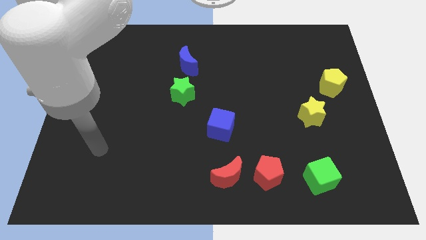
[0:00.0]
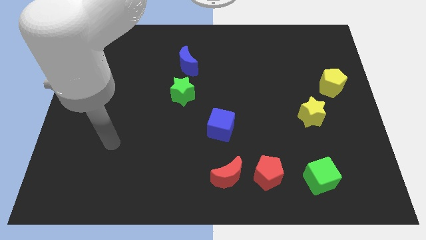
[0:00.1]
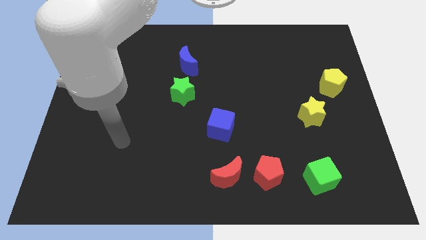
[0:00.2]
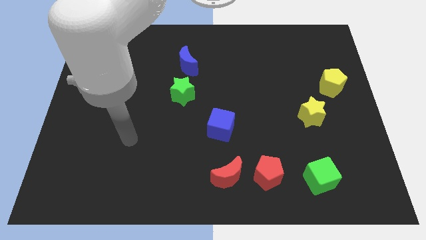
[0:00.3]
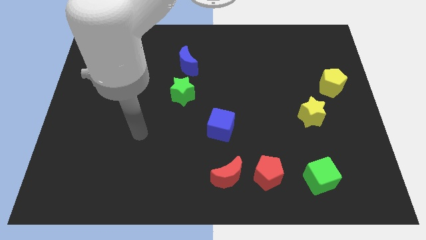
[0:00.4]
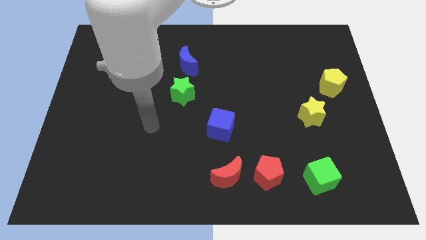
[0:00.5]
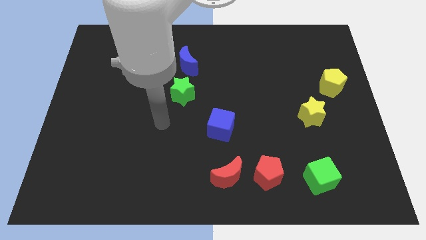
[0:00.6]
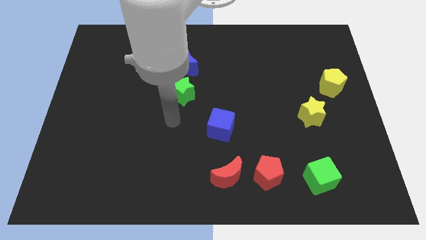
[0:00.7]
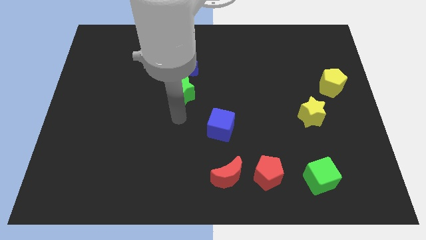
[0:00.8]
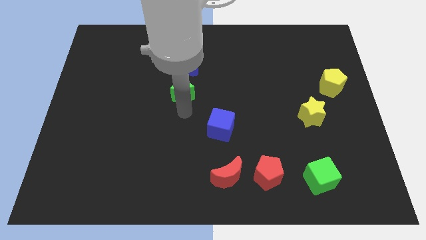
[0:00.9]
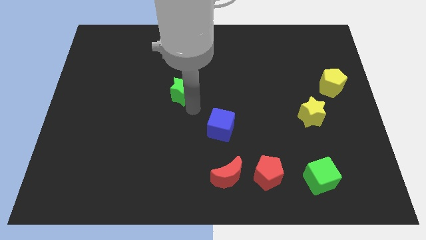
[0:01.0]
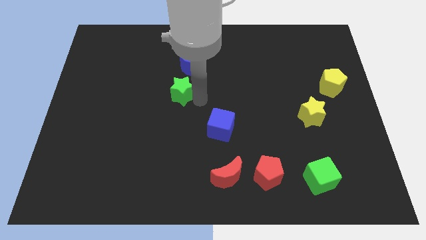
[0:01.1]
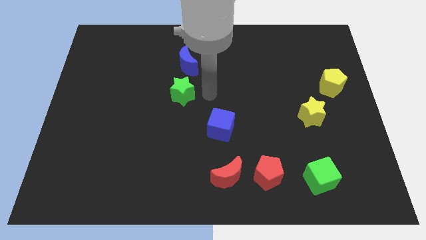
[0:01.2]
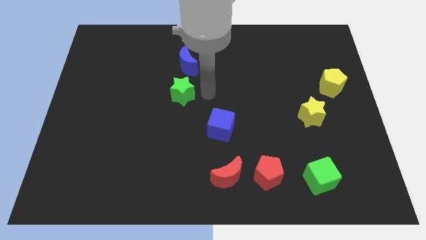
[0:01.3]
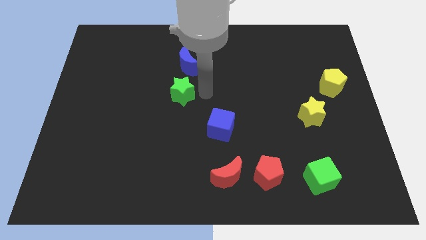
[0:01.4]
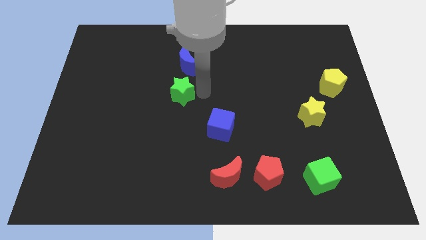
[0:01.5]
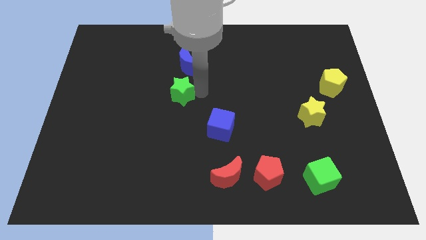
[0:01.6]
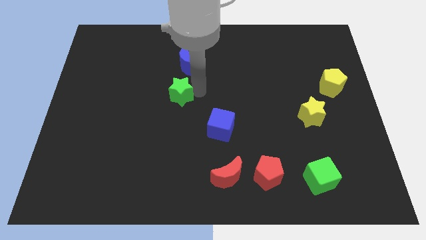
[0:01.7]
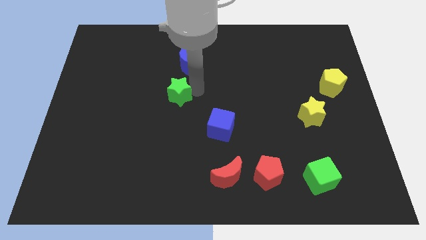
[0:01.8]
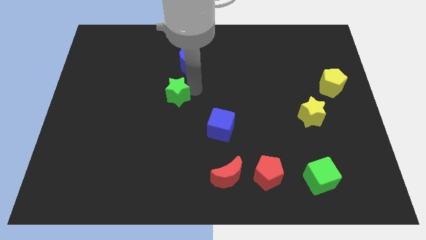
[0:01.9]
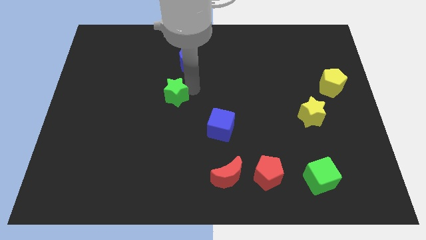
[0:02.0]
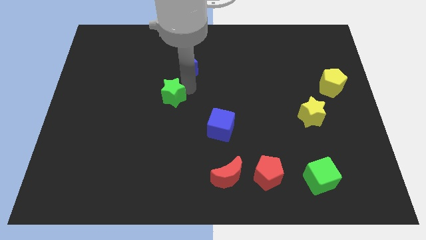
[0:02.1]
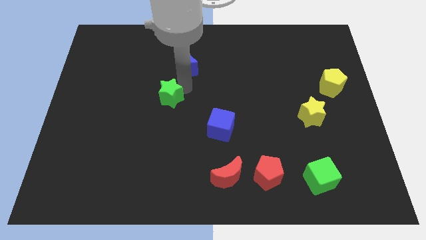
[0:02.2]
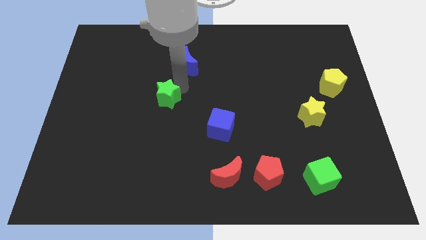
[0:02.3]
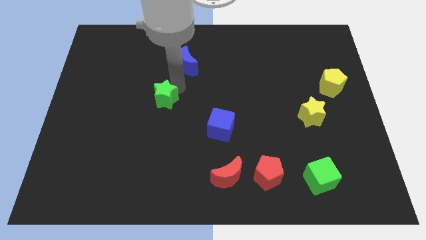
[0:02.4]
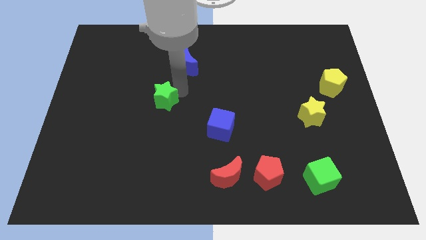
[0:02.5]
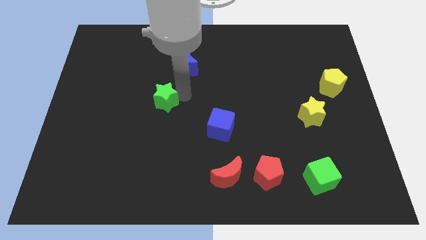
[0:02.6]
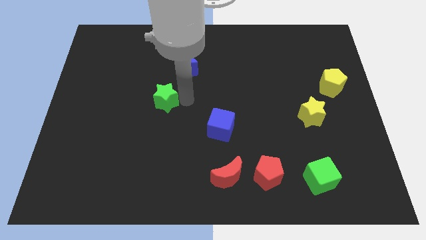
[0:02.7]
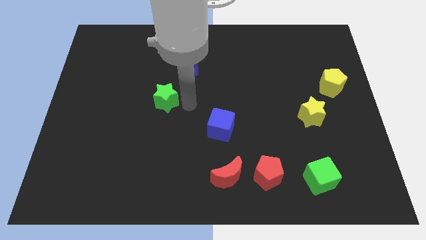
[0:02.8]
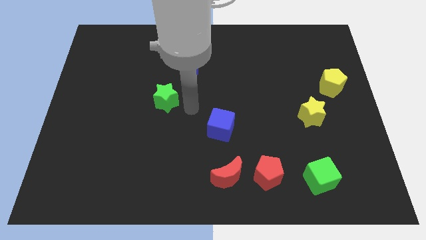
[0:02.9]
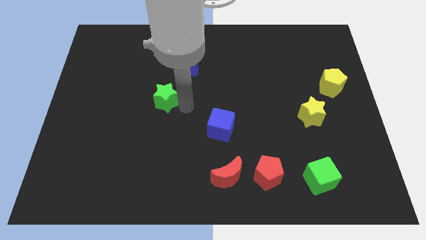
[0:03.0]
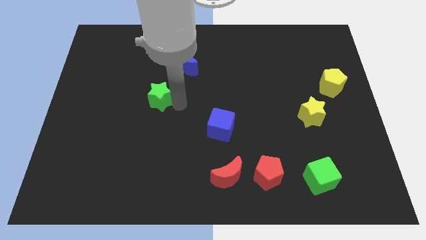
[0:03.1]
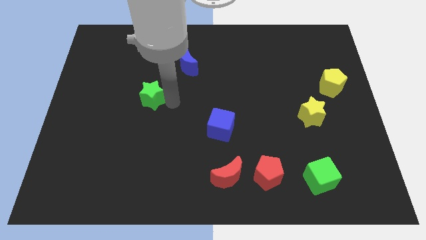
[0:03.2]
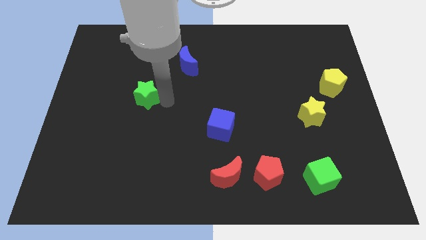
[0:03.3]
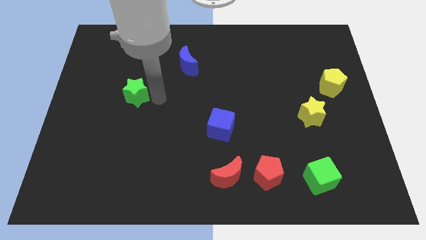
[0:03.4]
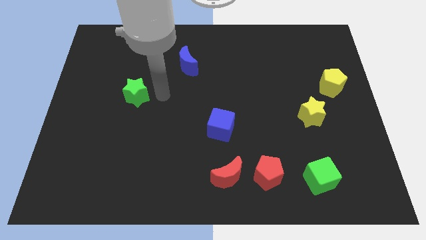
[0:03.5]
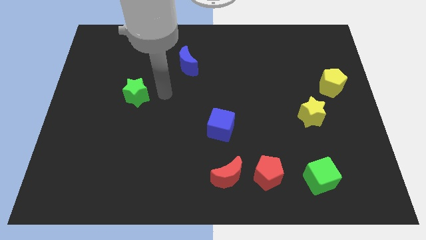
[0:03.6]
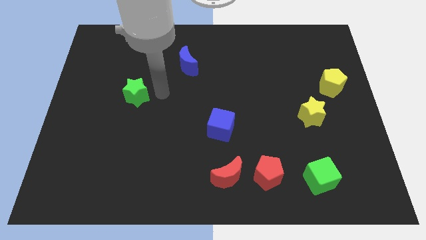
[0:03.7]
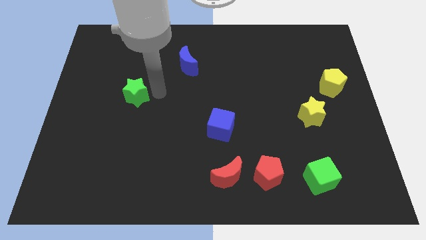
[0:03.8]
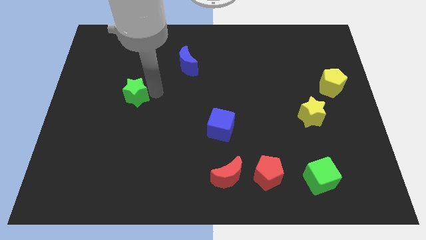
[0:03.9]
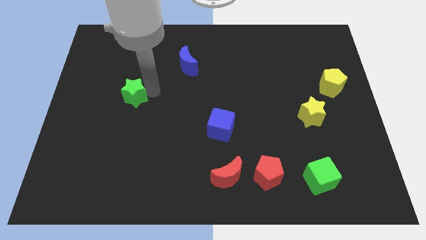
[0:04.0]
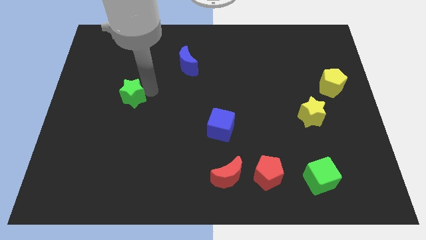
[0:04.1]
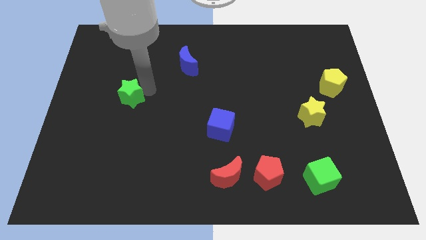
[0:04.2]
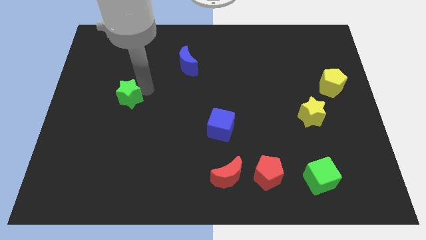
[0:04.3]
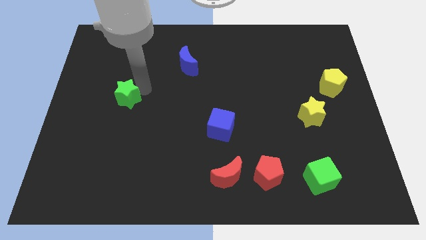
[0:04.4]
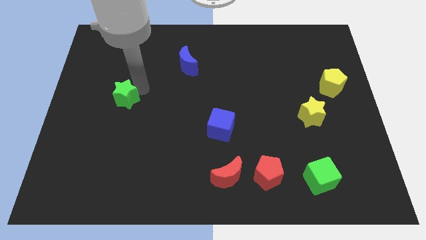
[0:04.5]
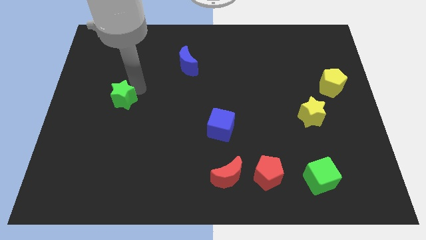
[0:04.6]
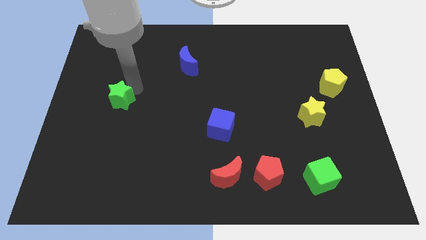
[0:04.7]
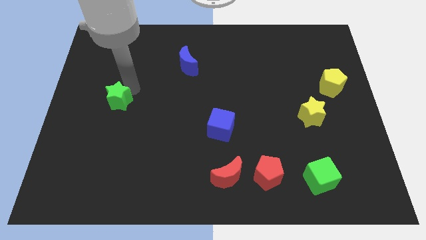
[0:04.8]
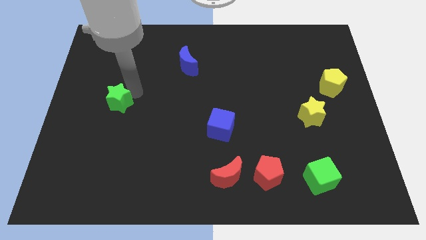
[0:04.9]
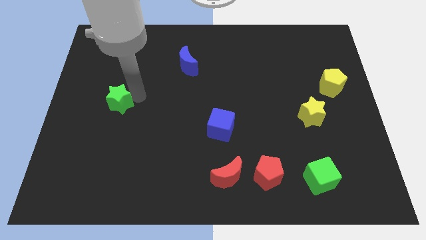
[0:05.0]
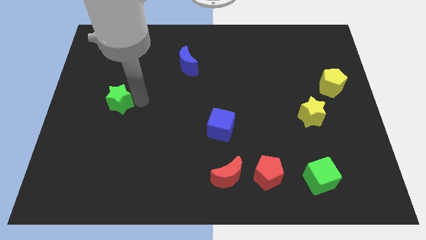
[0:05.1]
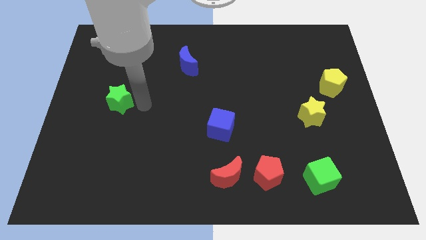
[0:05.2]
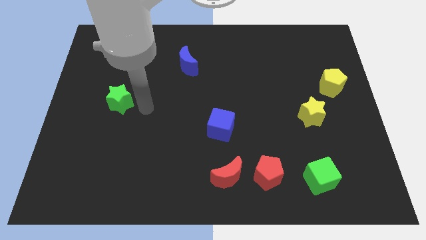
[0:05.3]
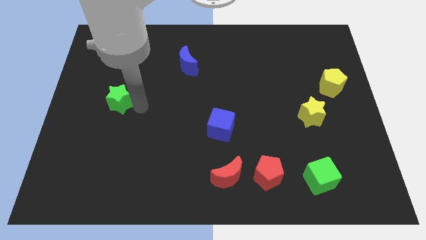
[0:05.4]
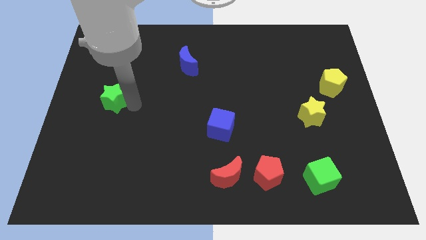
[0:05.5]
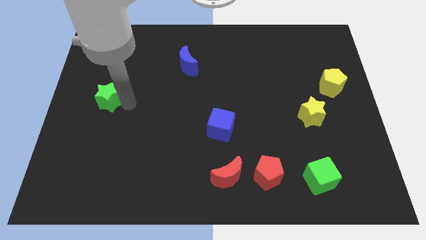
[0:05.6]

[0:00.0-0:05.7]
move the green star to the left side of the board

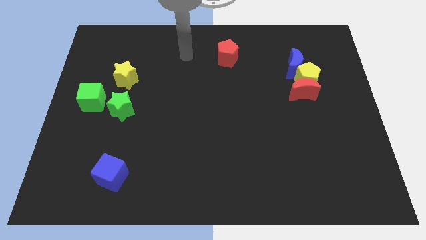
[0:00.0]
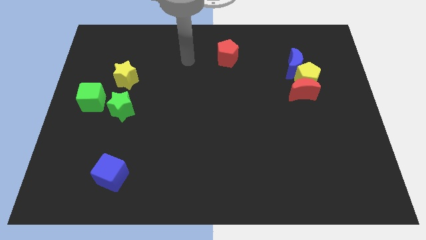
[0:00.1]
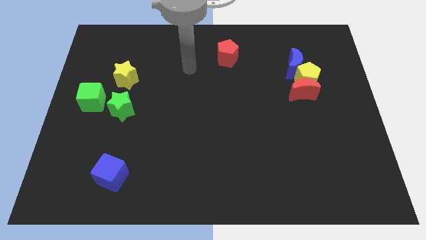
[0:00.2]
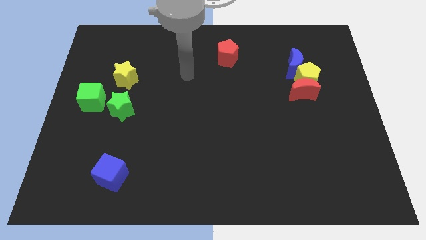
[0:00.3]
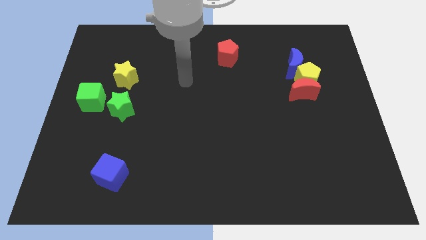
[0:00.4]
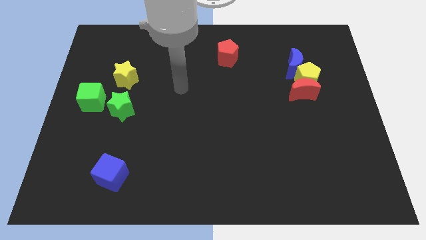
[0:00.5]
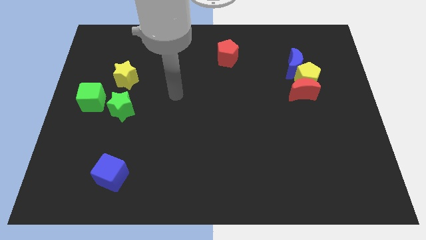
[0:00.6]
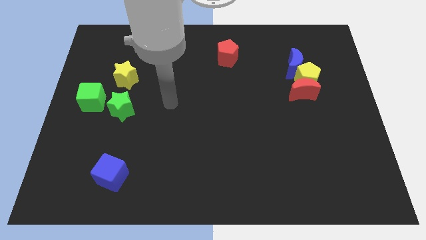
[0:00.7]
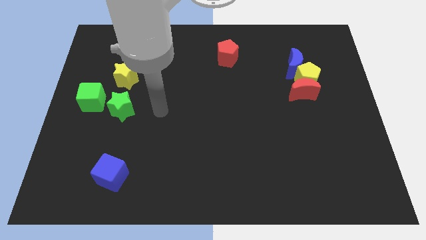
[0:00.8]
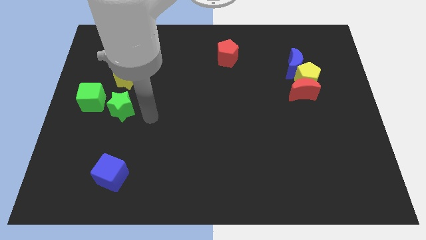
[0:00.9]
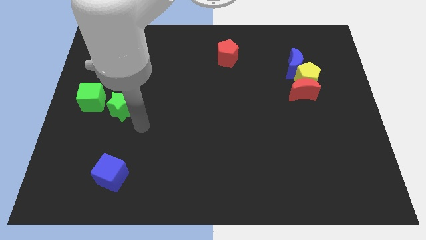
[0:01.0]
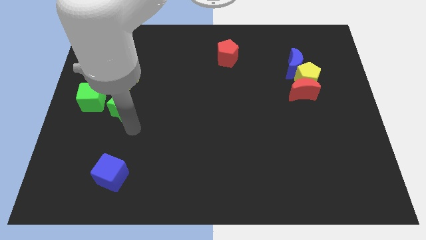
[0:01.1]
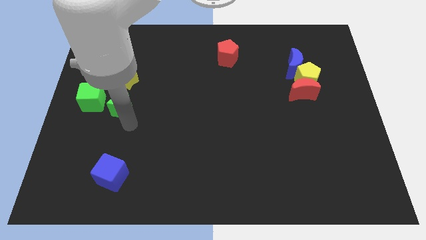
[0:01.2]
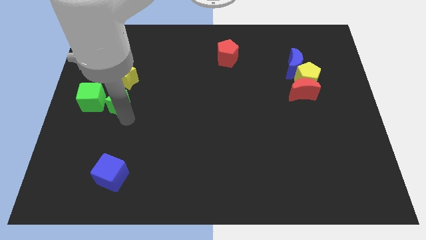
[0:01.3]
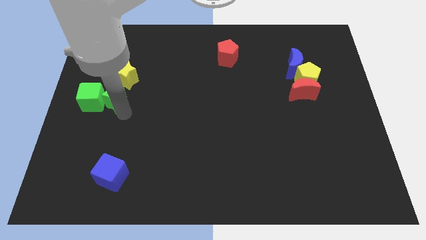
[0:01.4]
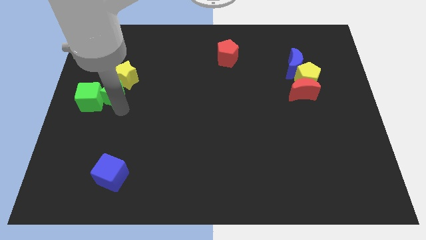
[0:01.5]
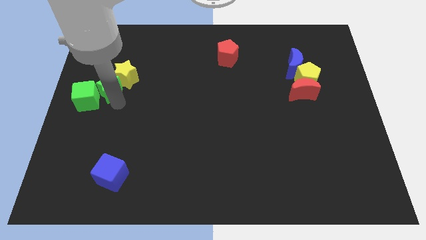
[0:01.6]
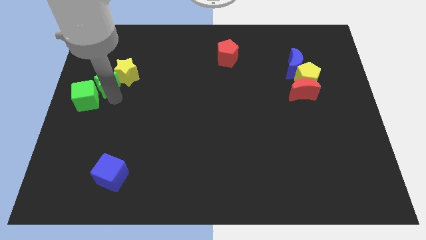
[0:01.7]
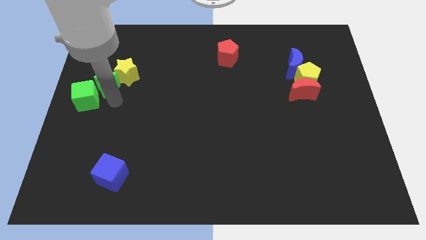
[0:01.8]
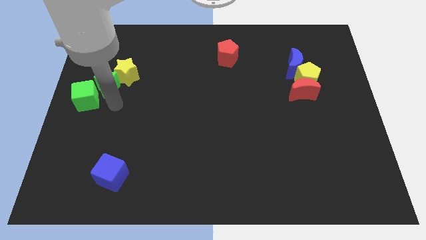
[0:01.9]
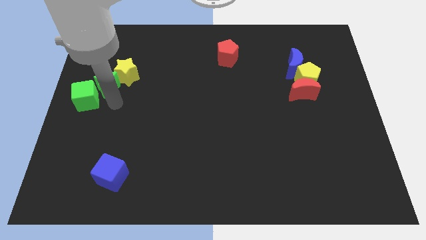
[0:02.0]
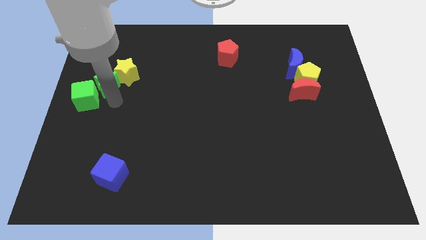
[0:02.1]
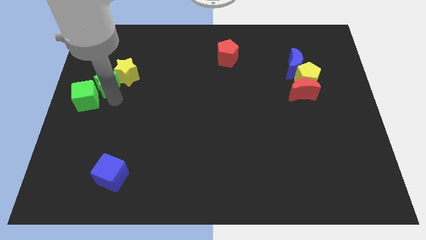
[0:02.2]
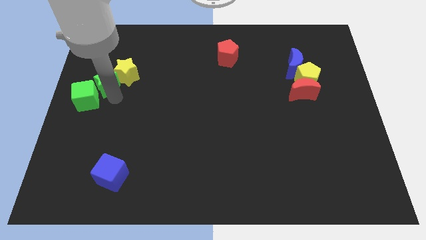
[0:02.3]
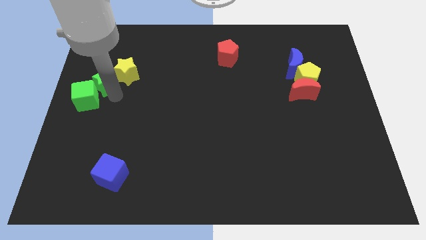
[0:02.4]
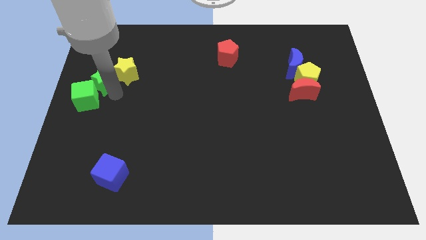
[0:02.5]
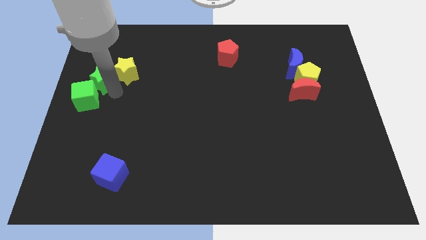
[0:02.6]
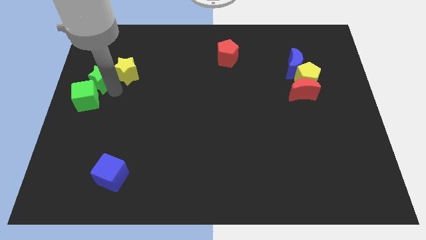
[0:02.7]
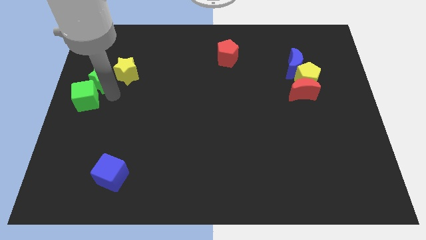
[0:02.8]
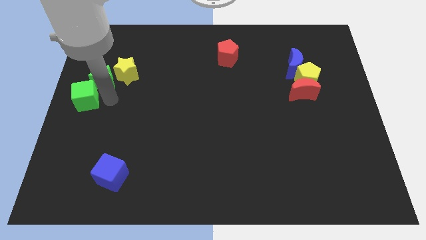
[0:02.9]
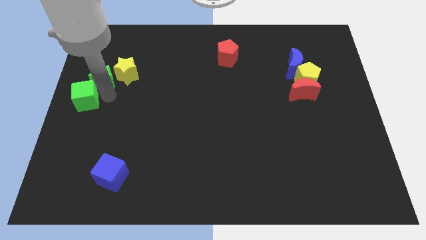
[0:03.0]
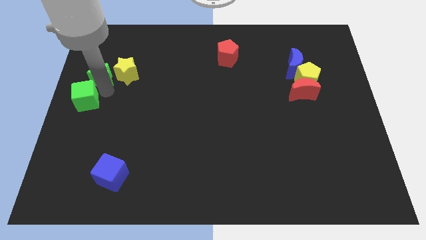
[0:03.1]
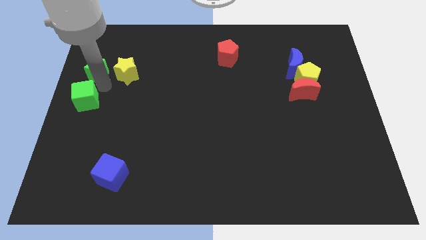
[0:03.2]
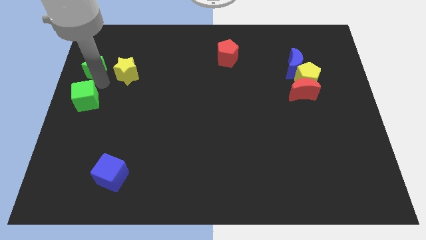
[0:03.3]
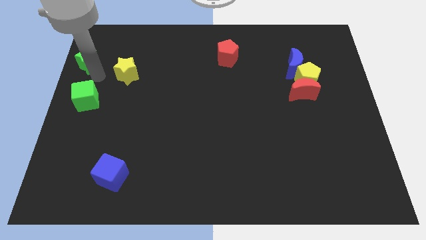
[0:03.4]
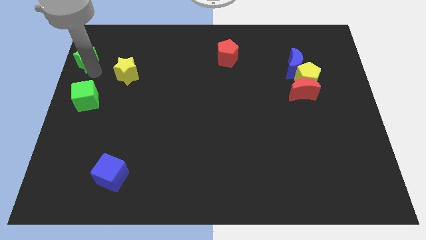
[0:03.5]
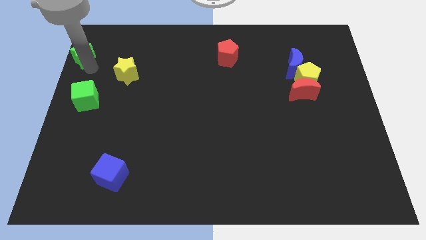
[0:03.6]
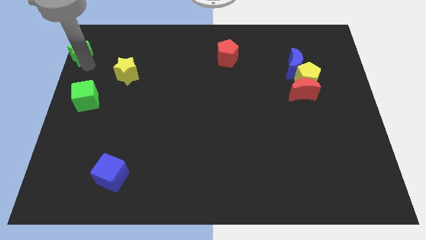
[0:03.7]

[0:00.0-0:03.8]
move the green star to the top left
